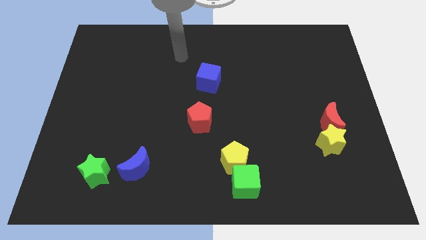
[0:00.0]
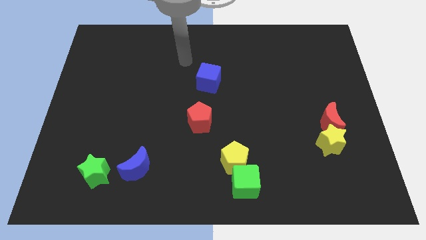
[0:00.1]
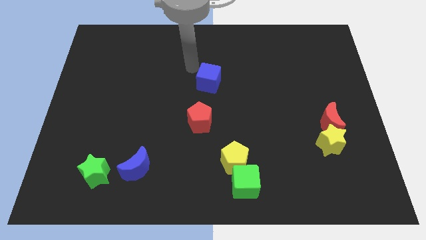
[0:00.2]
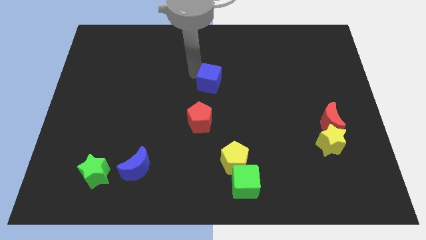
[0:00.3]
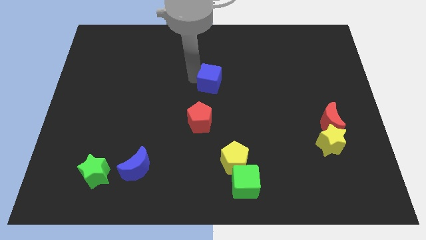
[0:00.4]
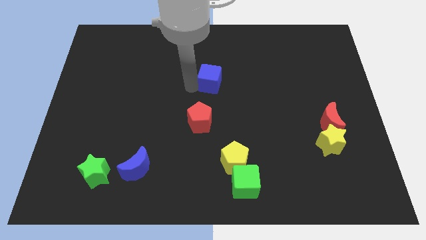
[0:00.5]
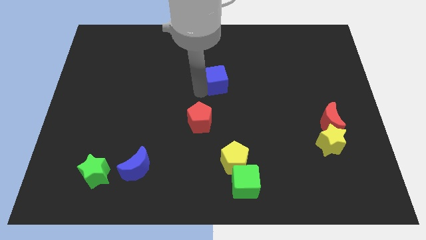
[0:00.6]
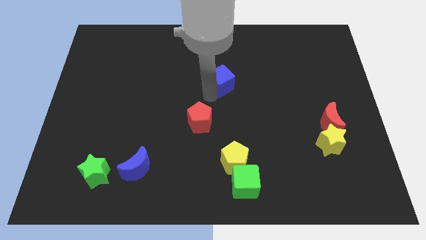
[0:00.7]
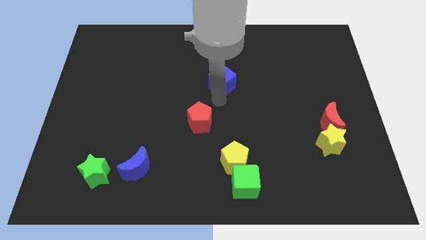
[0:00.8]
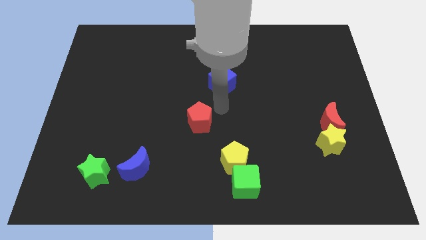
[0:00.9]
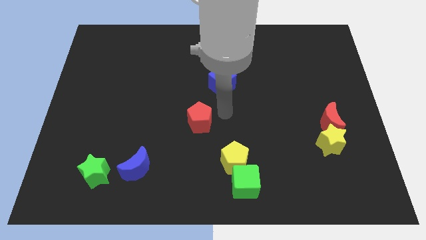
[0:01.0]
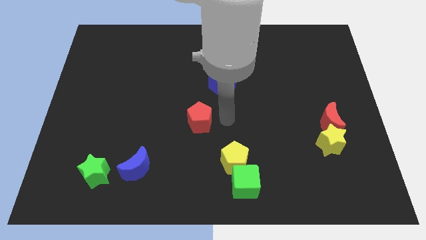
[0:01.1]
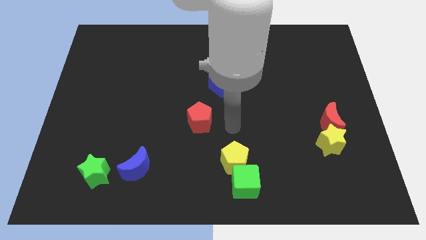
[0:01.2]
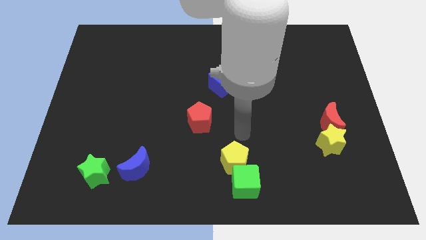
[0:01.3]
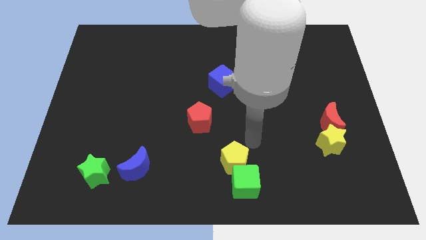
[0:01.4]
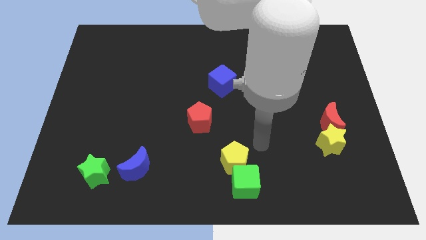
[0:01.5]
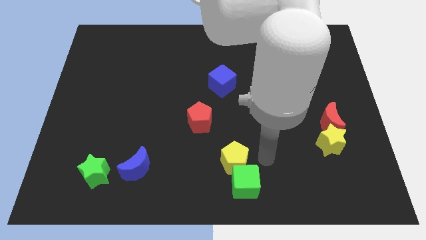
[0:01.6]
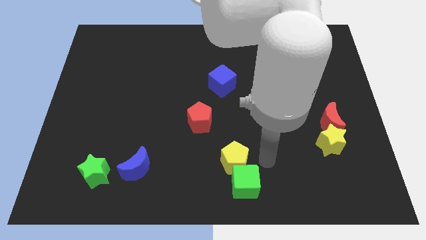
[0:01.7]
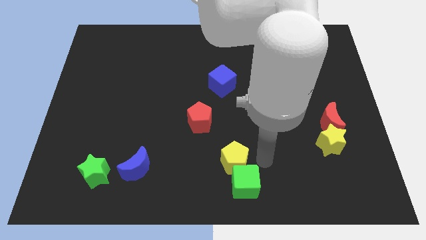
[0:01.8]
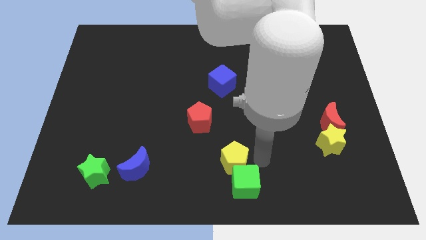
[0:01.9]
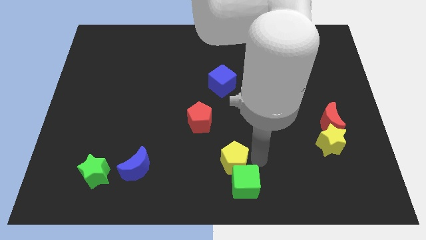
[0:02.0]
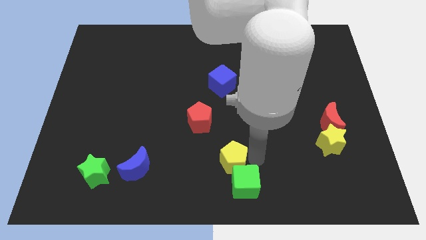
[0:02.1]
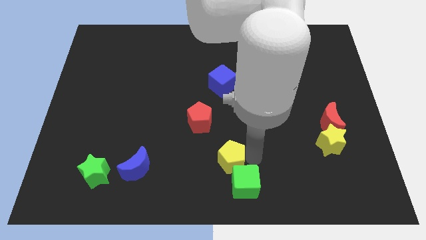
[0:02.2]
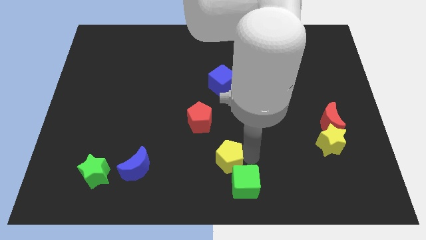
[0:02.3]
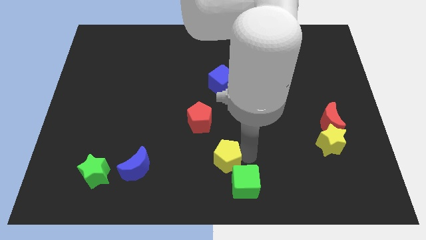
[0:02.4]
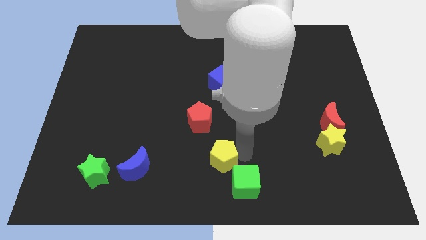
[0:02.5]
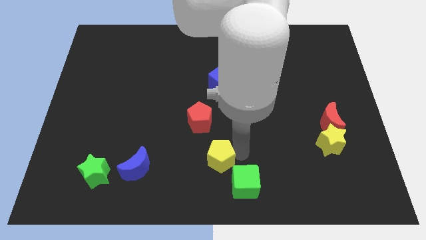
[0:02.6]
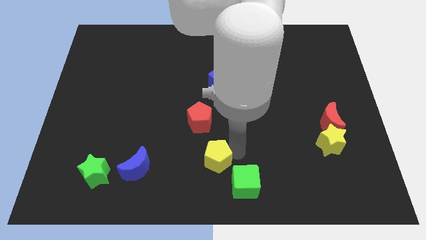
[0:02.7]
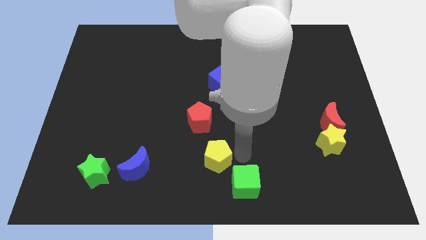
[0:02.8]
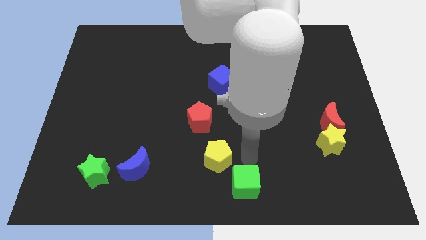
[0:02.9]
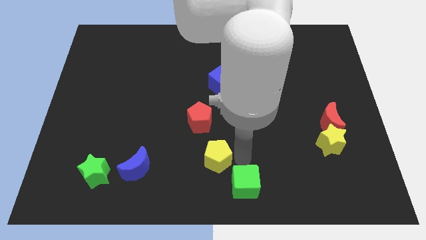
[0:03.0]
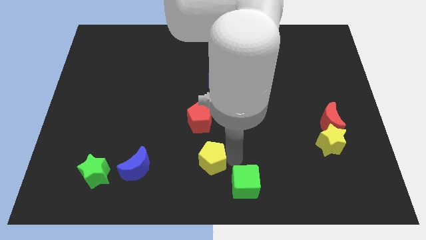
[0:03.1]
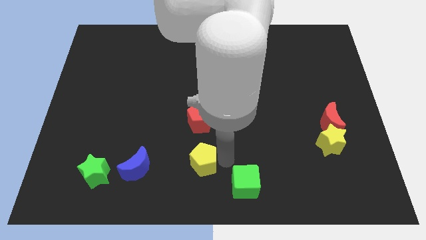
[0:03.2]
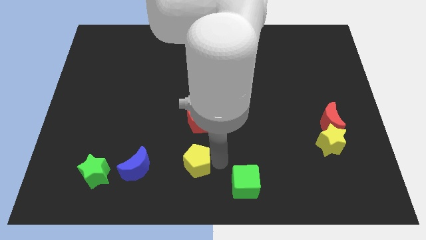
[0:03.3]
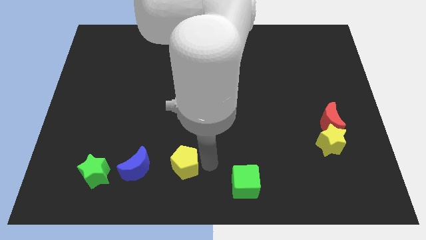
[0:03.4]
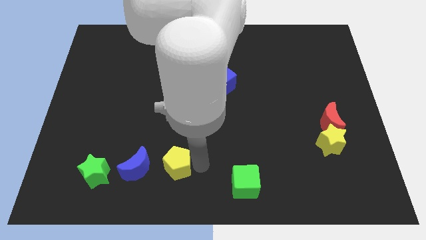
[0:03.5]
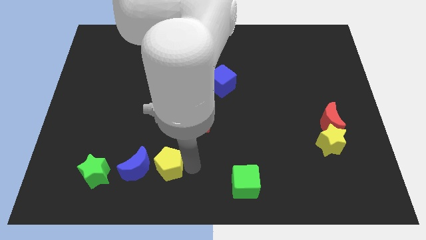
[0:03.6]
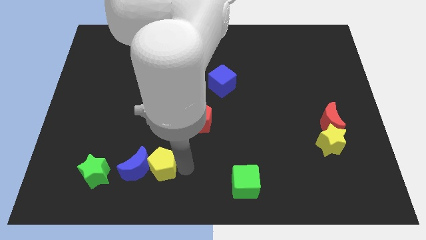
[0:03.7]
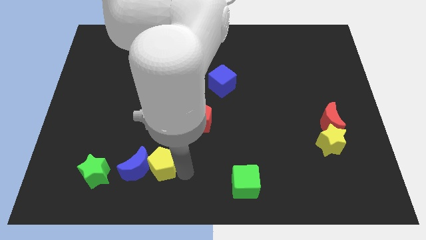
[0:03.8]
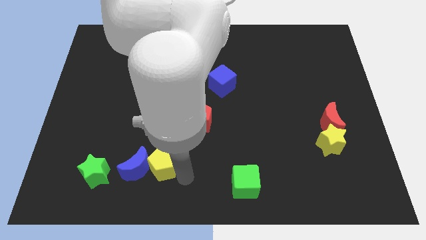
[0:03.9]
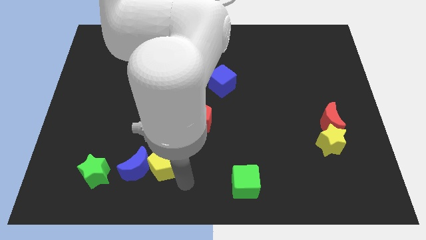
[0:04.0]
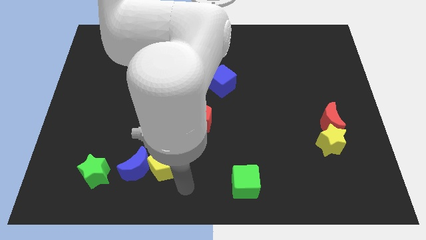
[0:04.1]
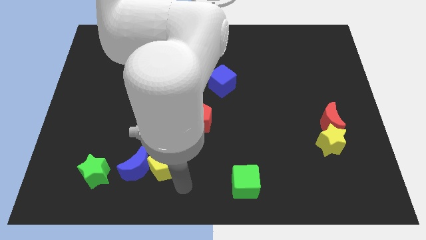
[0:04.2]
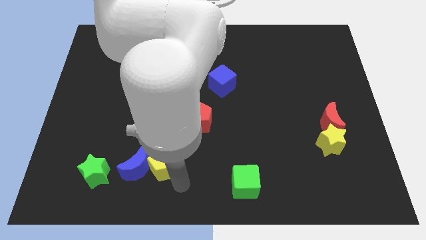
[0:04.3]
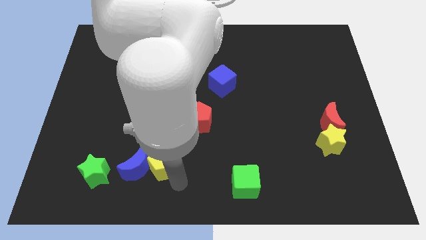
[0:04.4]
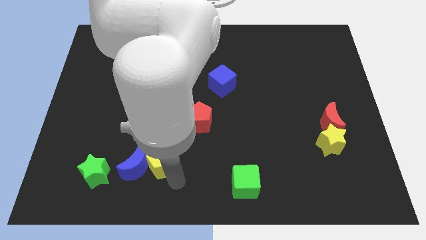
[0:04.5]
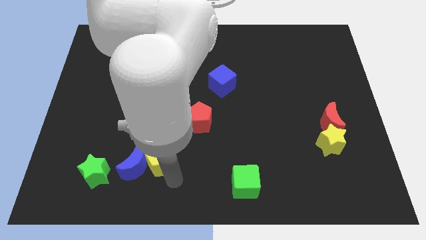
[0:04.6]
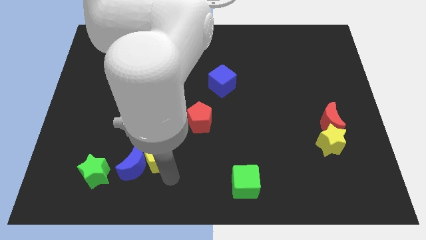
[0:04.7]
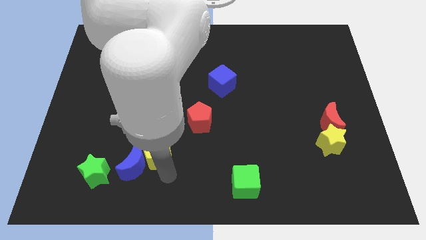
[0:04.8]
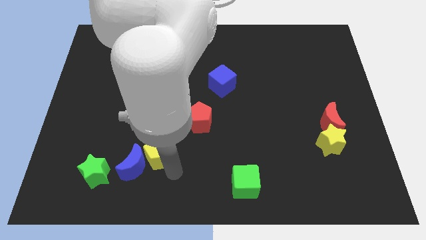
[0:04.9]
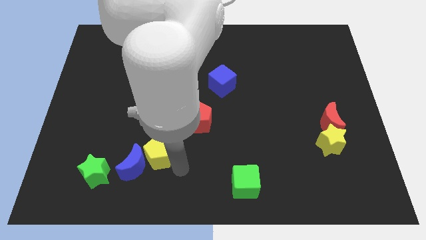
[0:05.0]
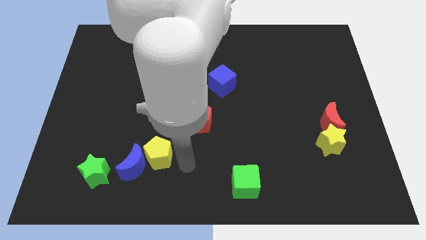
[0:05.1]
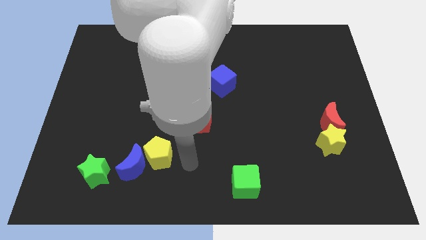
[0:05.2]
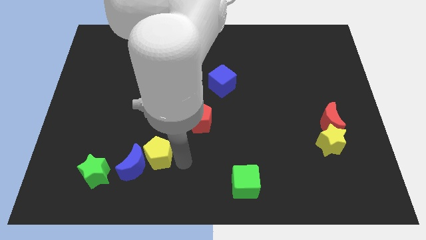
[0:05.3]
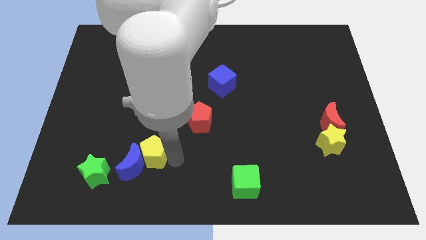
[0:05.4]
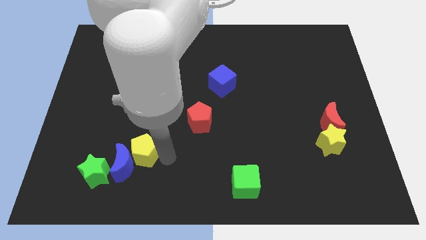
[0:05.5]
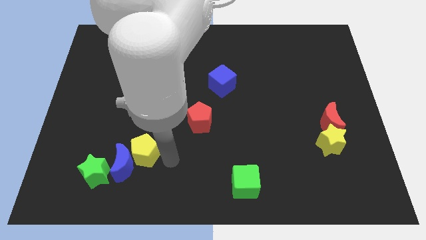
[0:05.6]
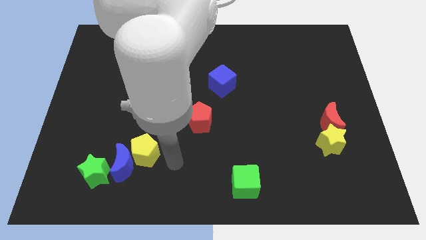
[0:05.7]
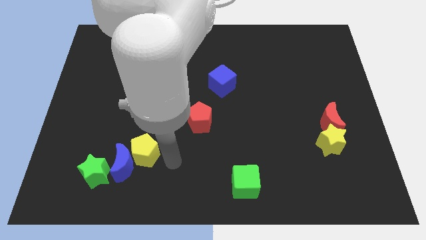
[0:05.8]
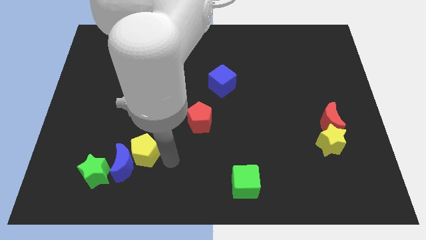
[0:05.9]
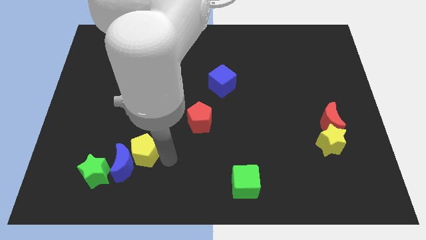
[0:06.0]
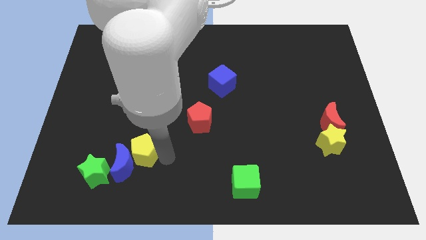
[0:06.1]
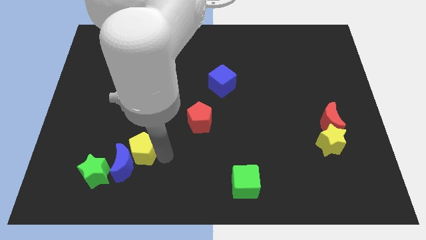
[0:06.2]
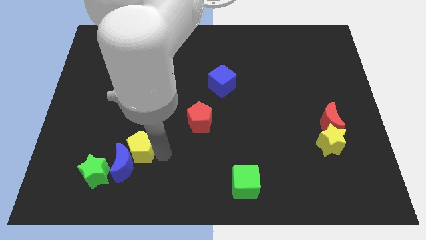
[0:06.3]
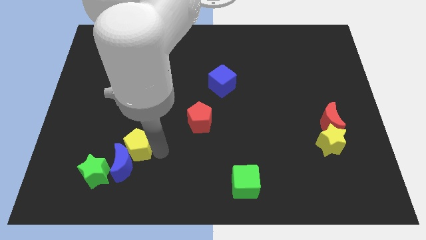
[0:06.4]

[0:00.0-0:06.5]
push the yellow pentagon left

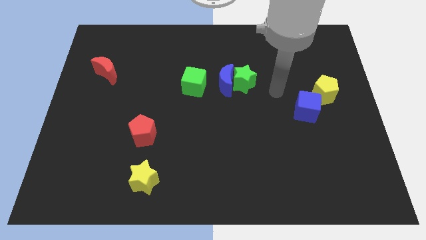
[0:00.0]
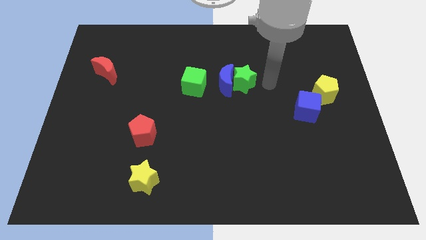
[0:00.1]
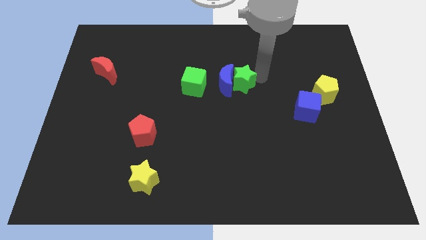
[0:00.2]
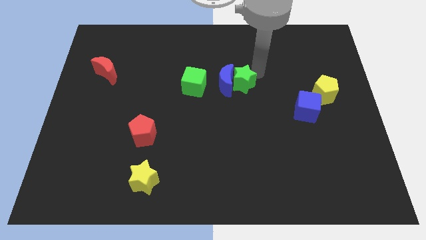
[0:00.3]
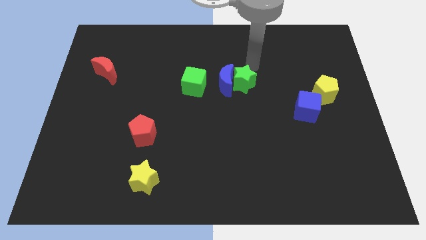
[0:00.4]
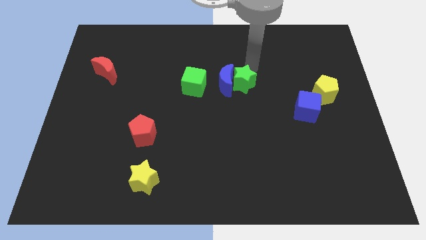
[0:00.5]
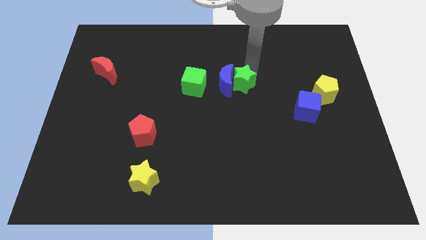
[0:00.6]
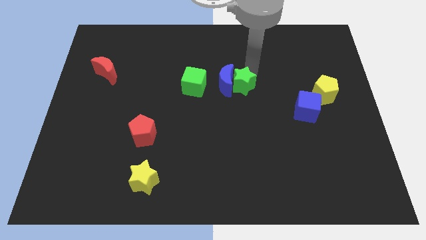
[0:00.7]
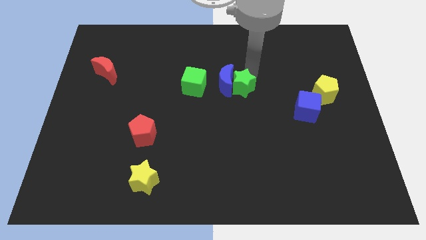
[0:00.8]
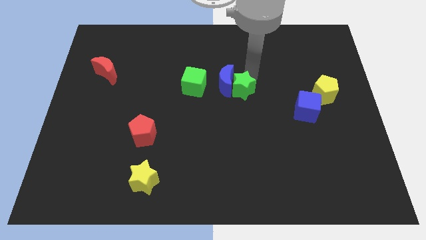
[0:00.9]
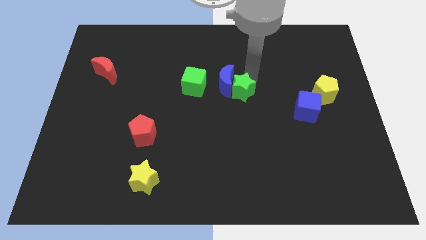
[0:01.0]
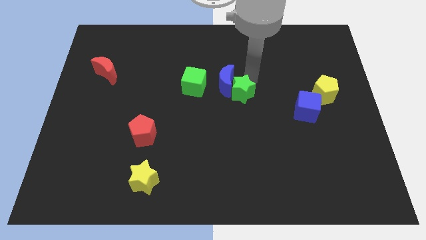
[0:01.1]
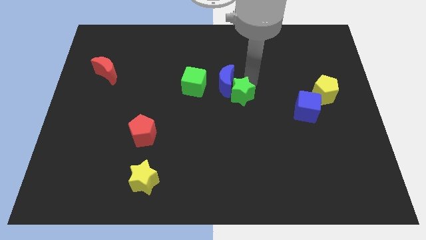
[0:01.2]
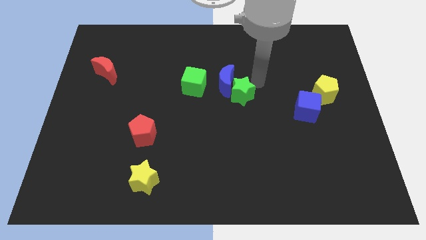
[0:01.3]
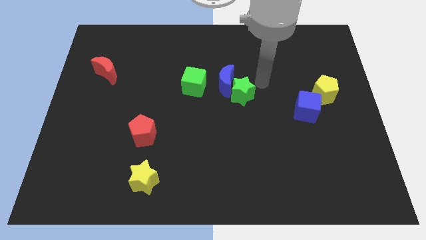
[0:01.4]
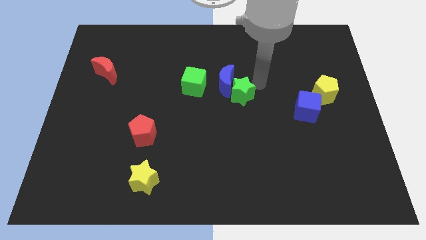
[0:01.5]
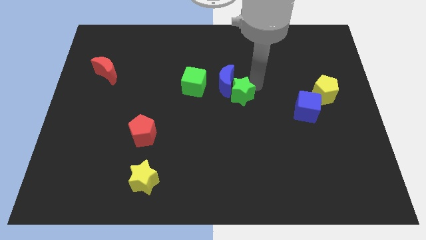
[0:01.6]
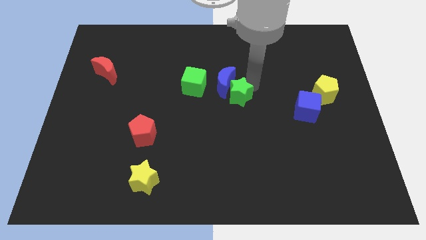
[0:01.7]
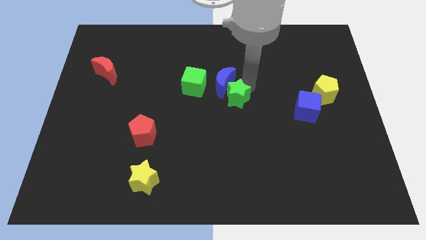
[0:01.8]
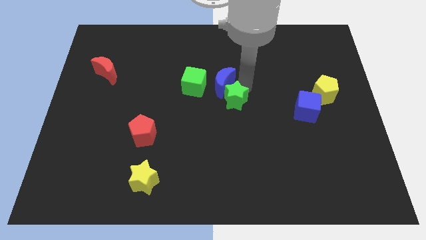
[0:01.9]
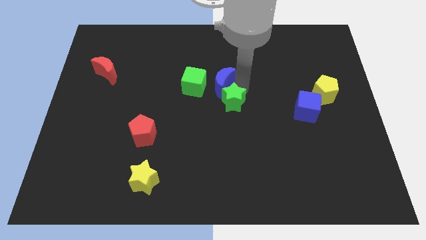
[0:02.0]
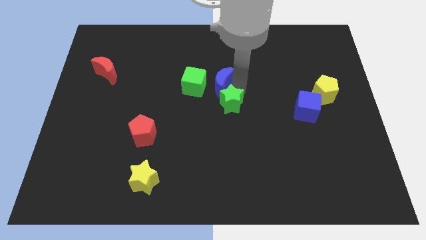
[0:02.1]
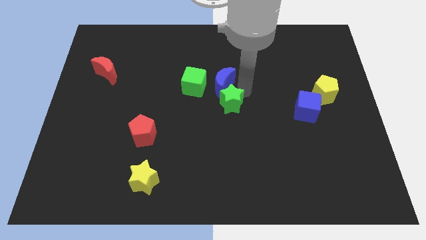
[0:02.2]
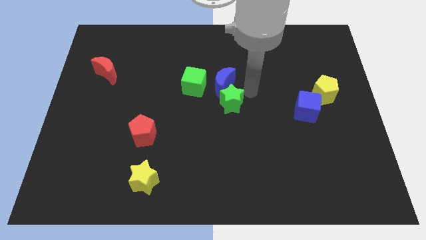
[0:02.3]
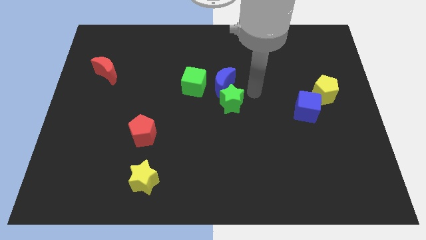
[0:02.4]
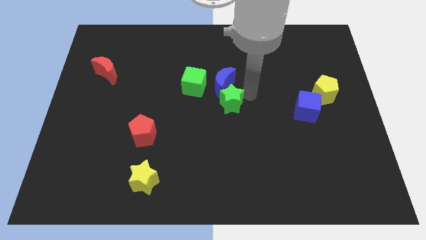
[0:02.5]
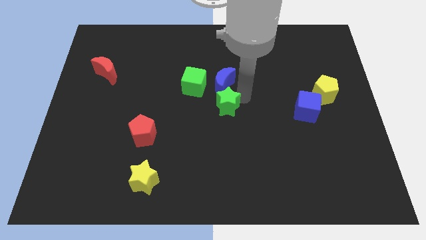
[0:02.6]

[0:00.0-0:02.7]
push the green star slightly downwards and to the left diagonally
